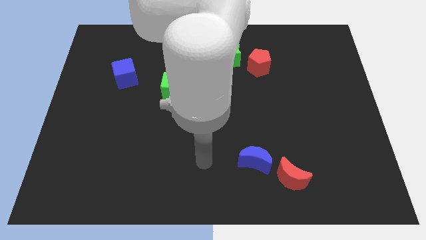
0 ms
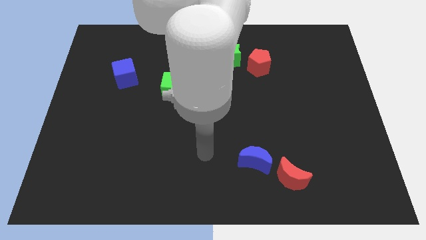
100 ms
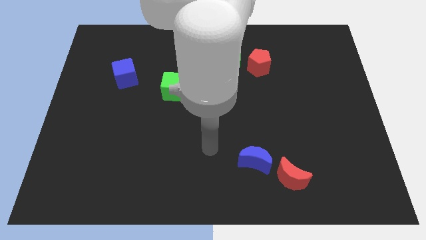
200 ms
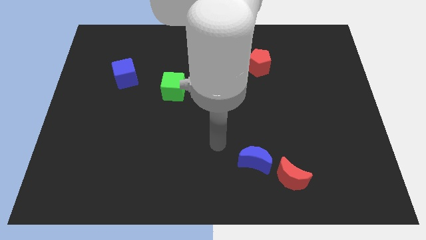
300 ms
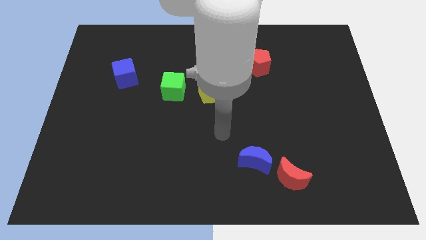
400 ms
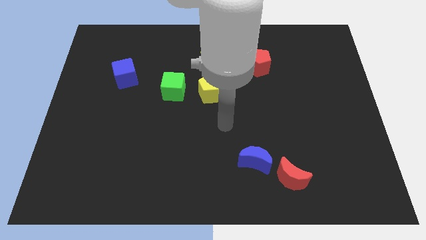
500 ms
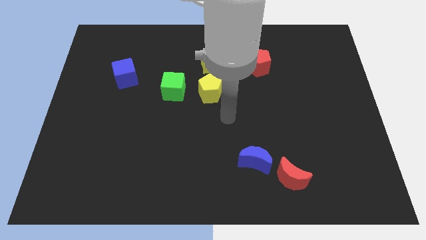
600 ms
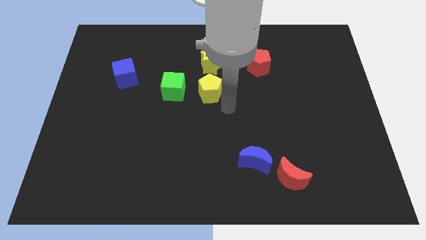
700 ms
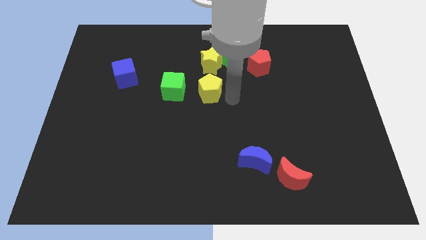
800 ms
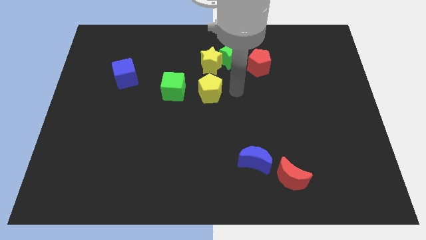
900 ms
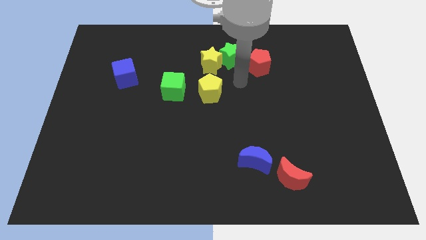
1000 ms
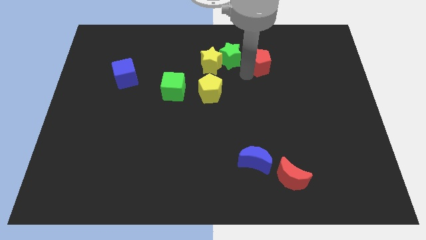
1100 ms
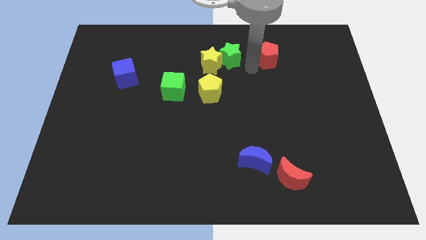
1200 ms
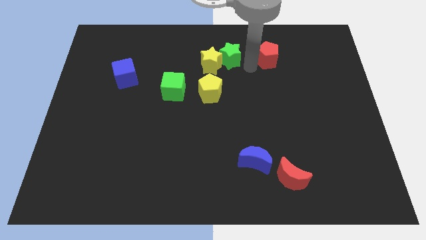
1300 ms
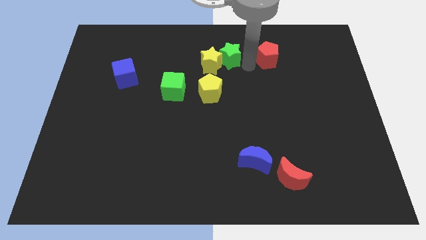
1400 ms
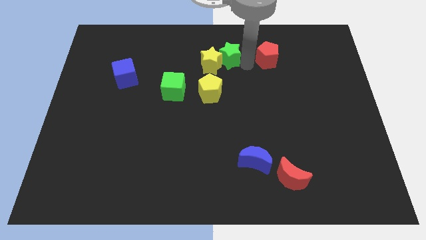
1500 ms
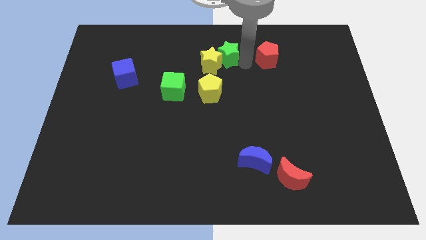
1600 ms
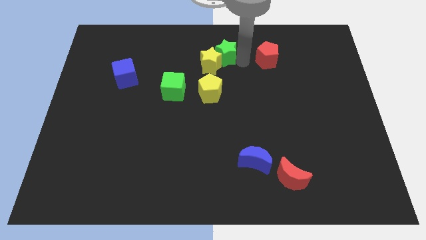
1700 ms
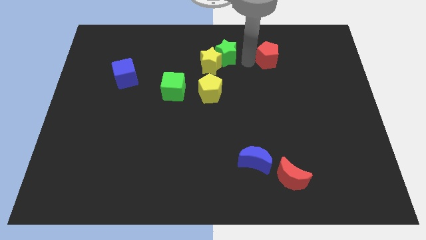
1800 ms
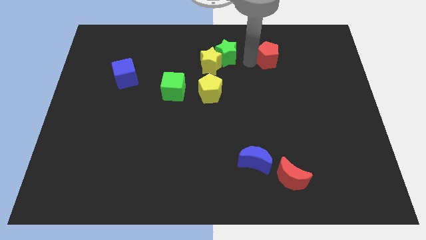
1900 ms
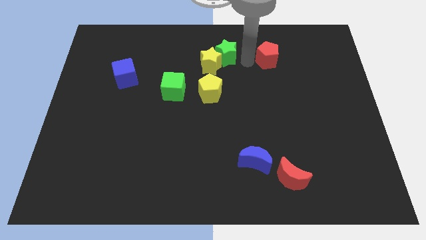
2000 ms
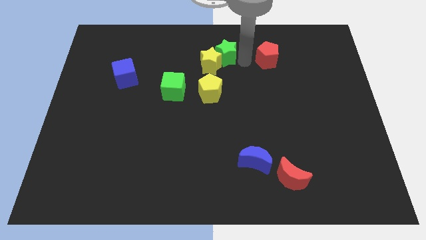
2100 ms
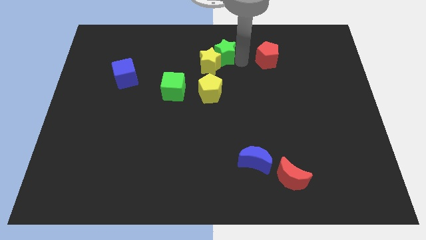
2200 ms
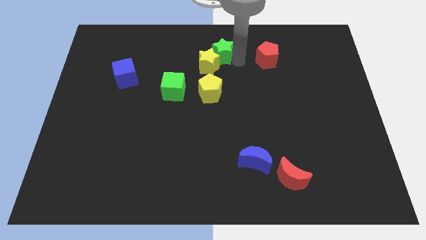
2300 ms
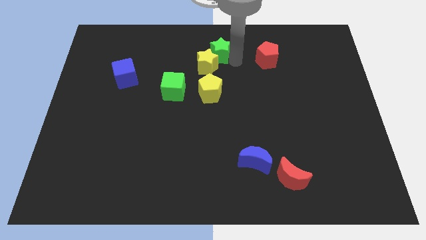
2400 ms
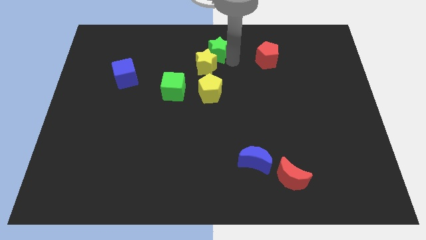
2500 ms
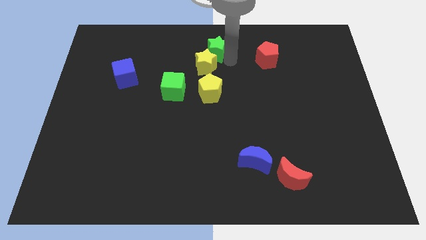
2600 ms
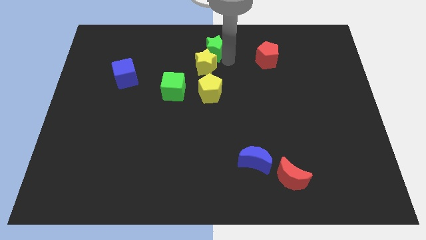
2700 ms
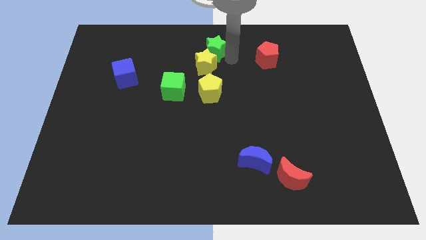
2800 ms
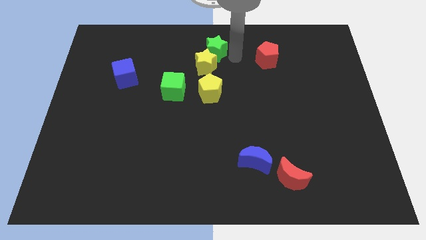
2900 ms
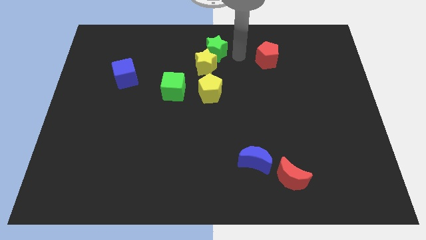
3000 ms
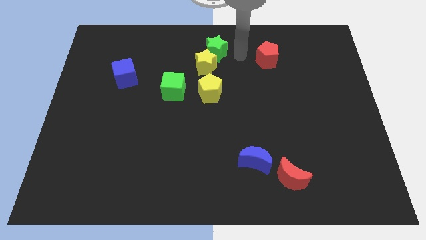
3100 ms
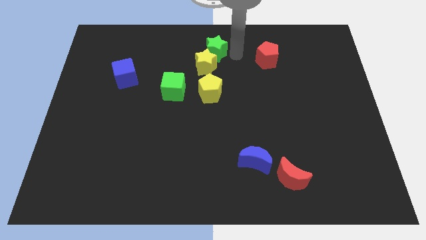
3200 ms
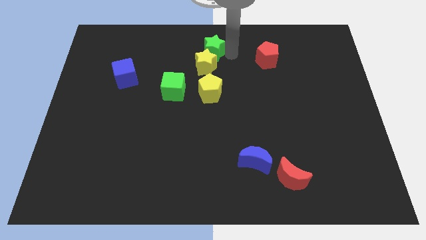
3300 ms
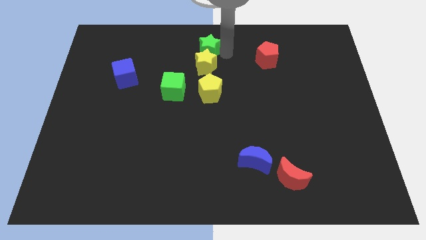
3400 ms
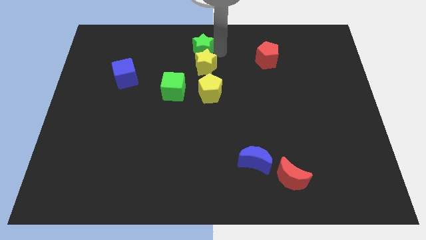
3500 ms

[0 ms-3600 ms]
push the green star slightly left

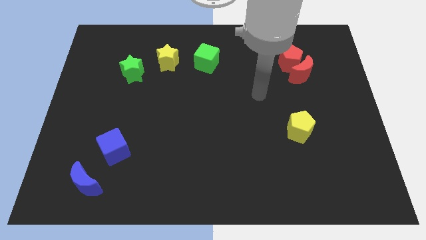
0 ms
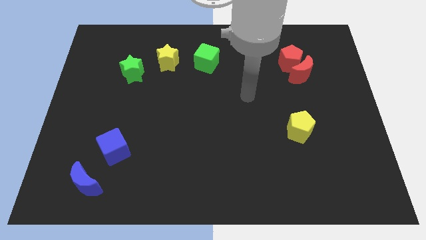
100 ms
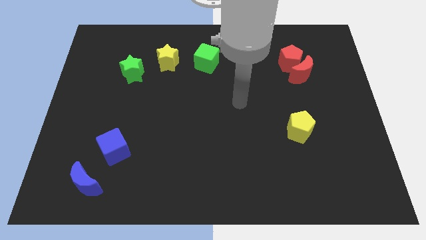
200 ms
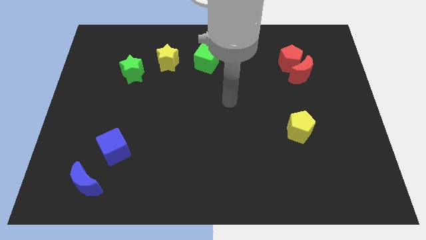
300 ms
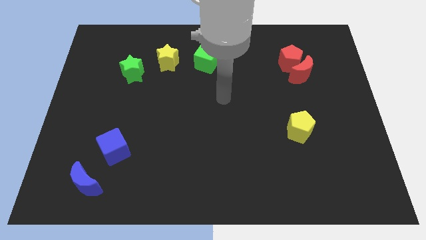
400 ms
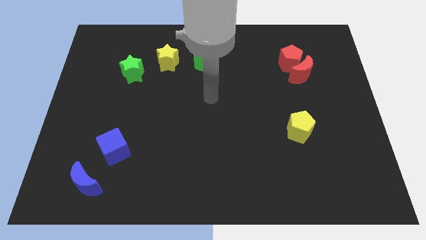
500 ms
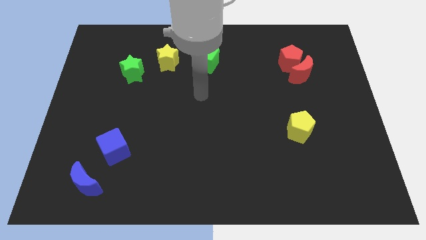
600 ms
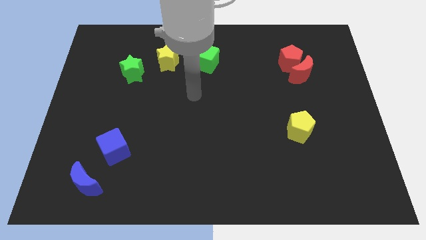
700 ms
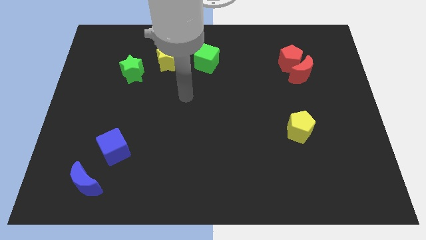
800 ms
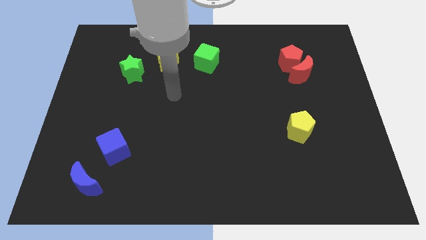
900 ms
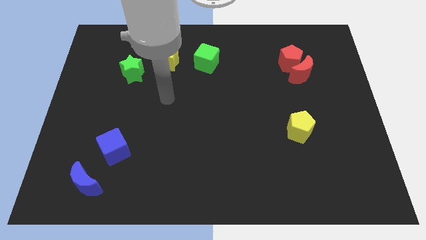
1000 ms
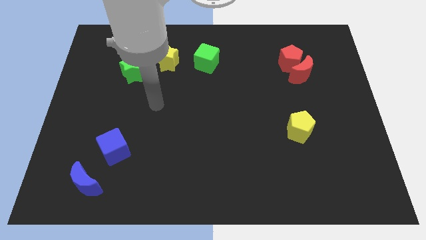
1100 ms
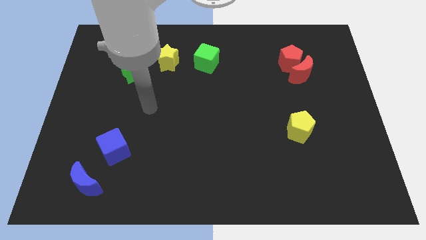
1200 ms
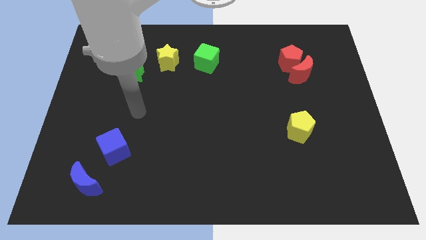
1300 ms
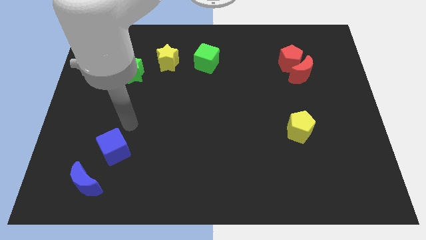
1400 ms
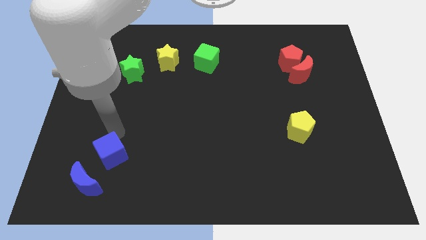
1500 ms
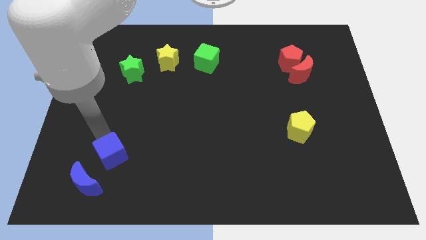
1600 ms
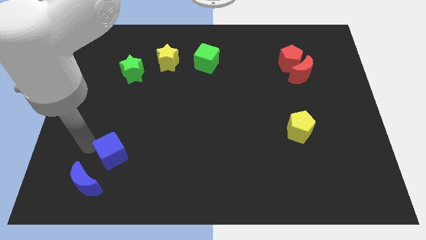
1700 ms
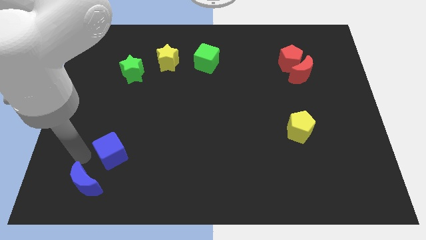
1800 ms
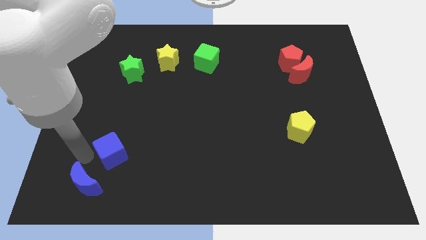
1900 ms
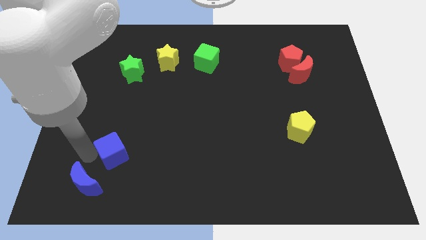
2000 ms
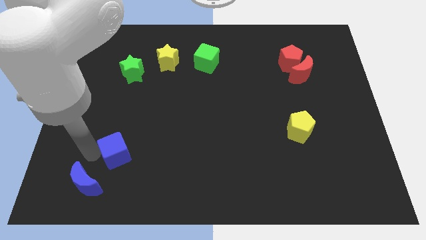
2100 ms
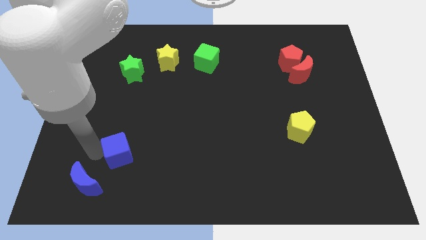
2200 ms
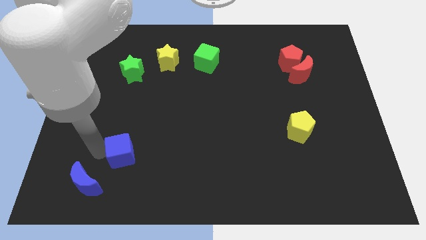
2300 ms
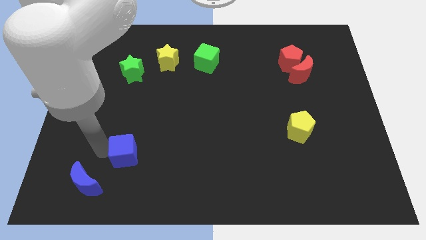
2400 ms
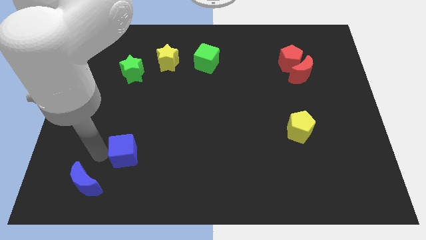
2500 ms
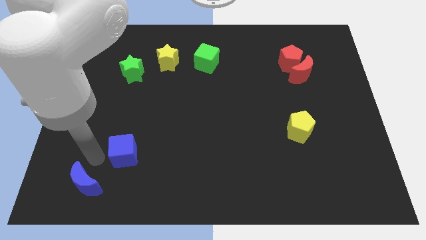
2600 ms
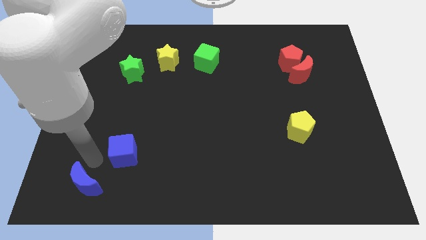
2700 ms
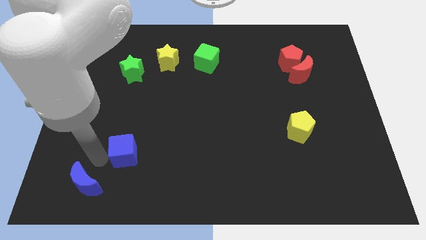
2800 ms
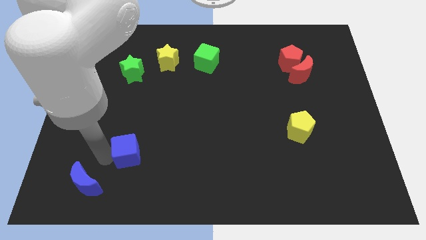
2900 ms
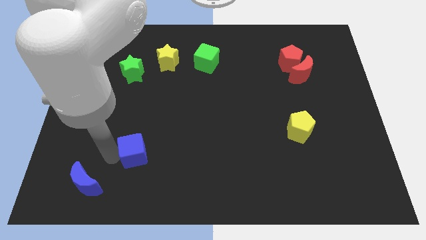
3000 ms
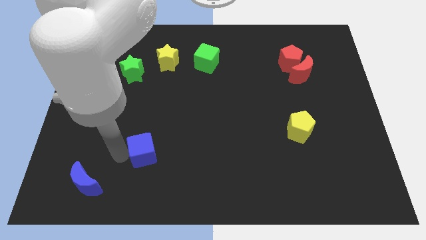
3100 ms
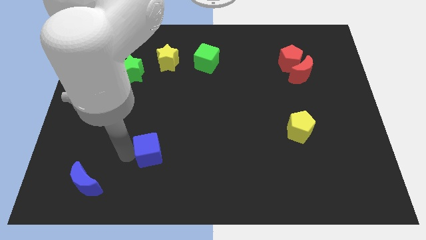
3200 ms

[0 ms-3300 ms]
slightly slide the blue cube right

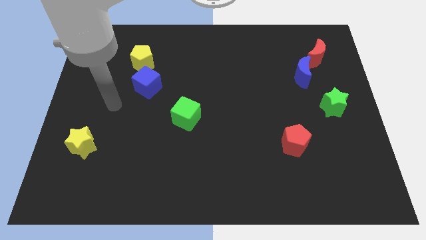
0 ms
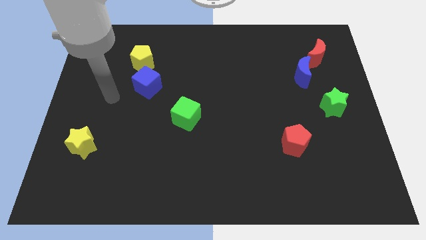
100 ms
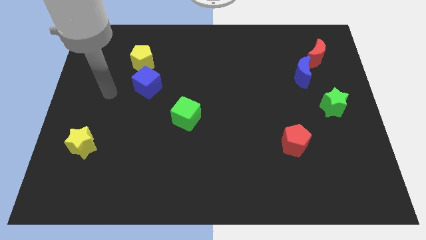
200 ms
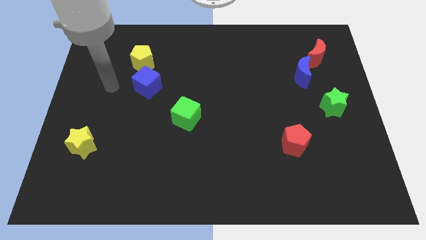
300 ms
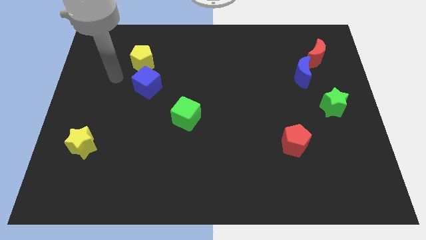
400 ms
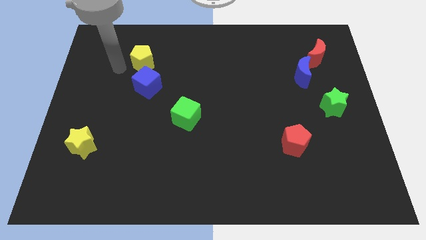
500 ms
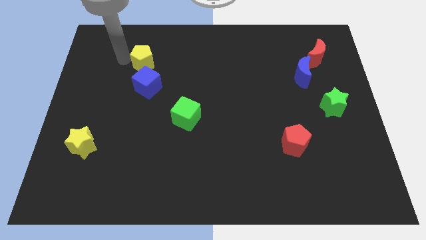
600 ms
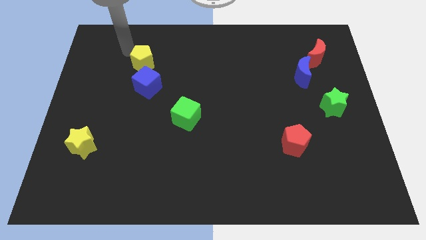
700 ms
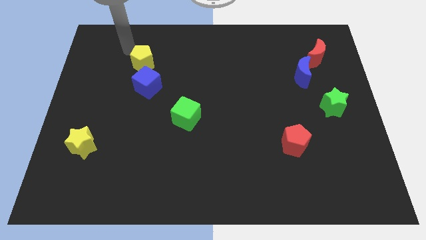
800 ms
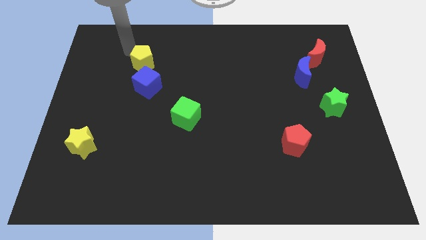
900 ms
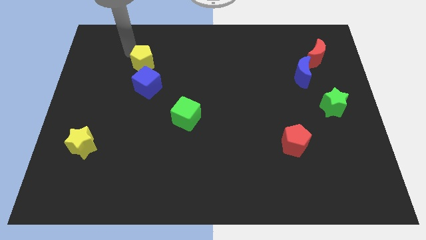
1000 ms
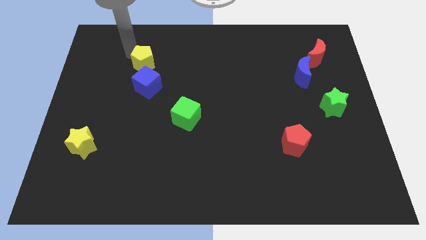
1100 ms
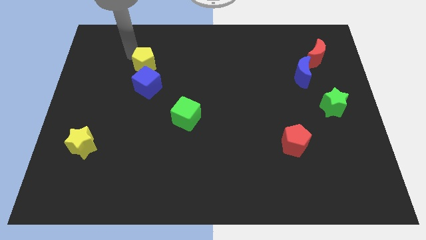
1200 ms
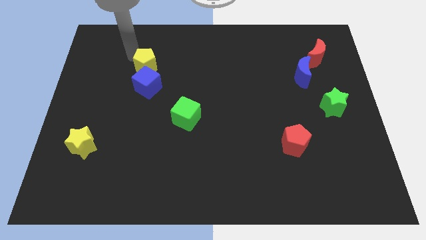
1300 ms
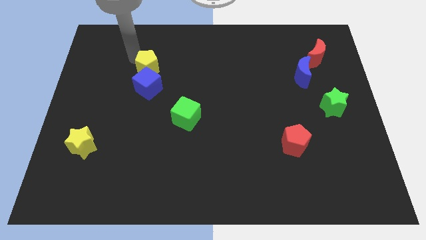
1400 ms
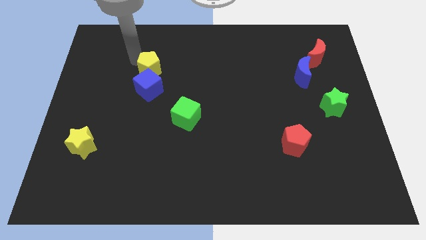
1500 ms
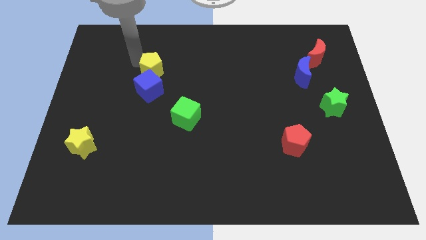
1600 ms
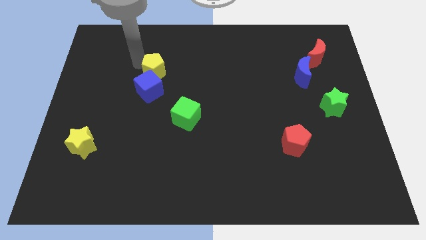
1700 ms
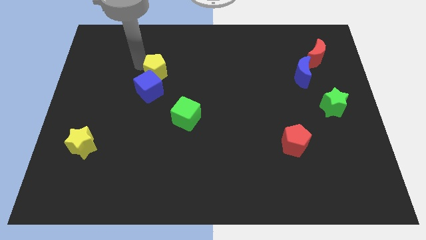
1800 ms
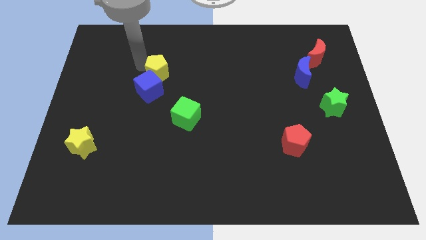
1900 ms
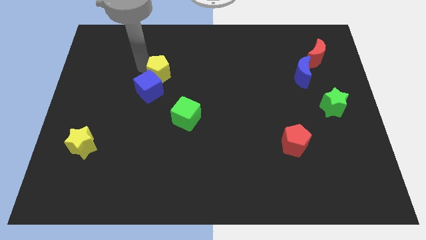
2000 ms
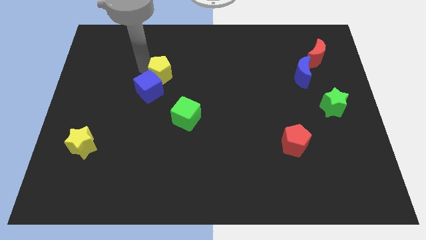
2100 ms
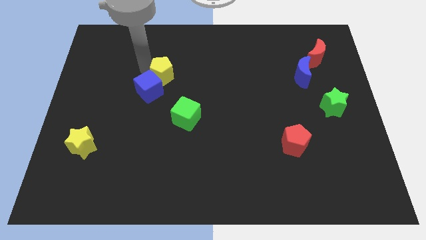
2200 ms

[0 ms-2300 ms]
move the yellow pentagon a bit downwards and right
